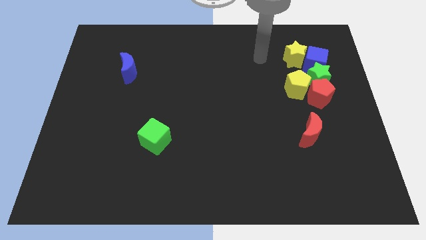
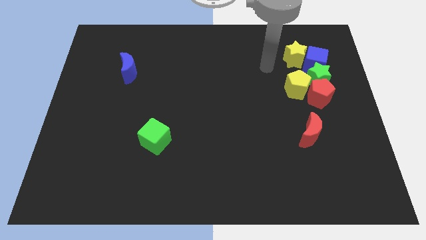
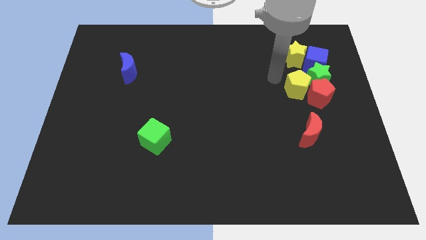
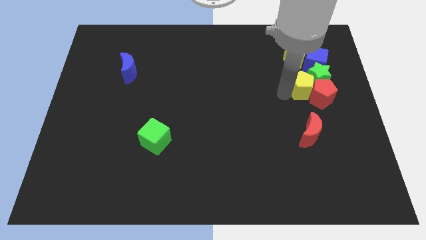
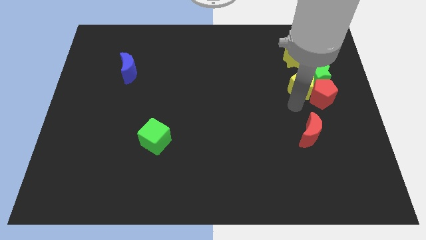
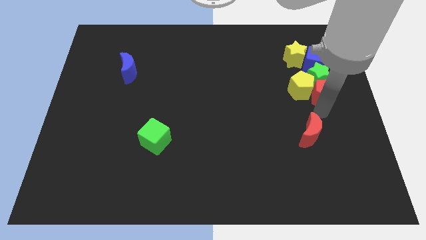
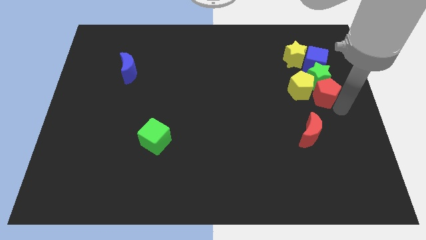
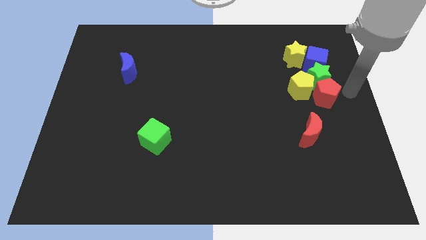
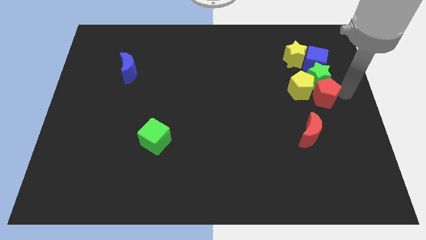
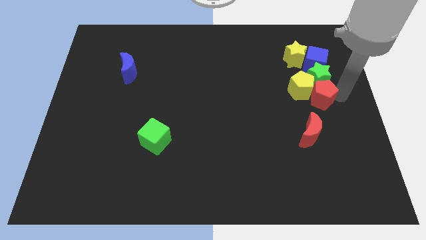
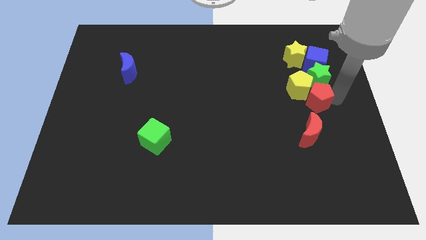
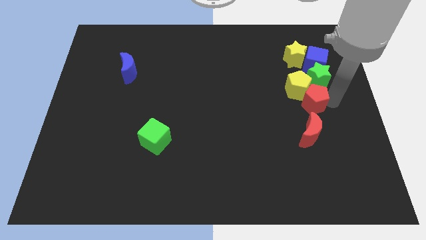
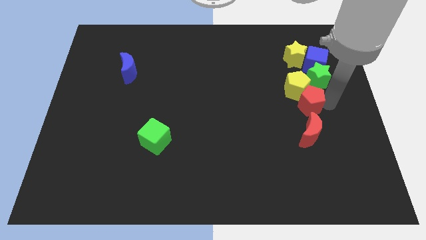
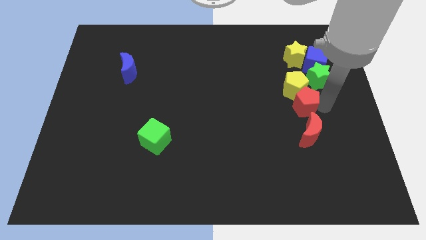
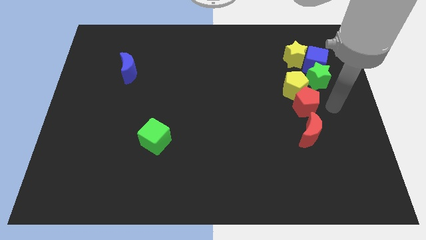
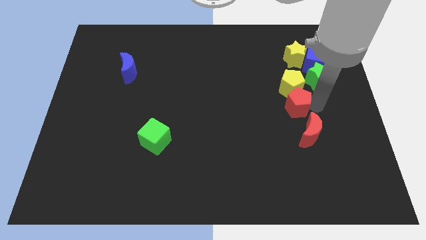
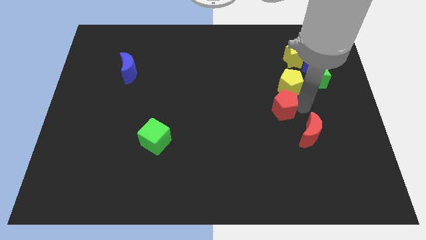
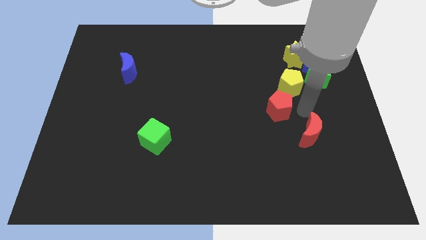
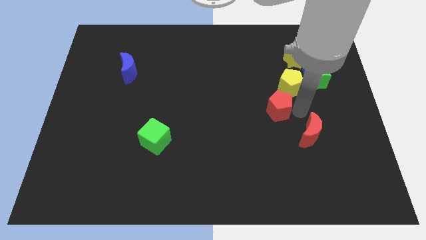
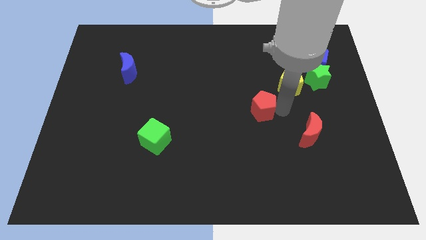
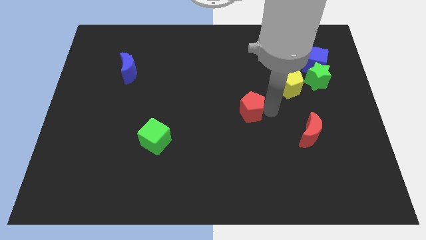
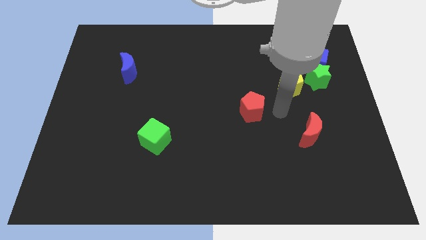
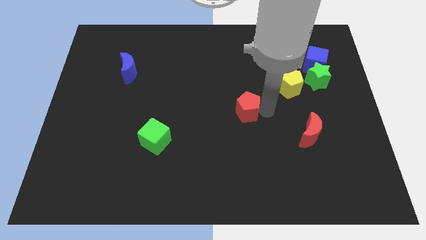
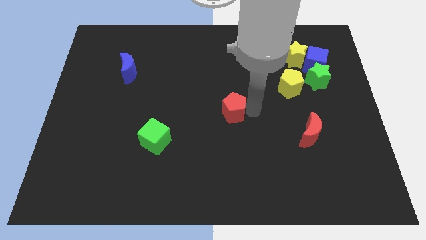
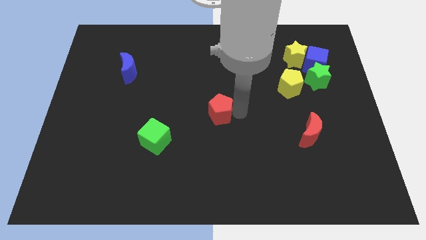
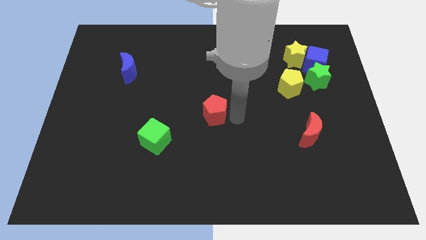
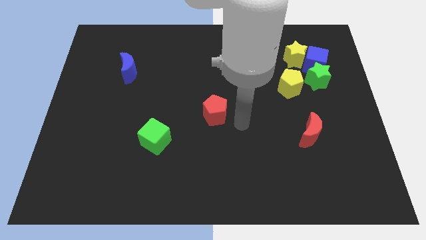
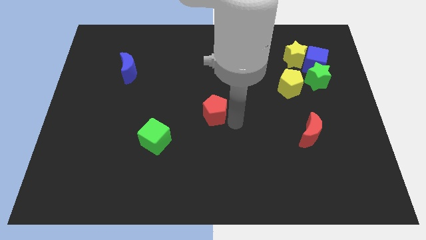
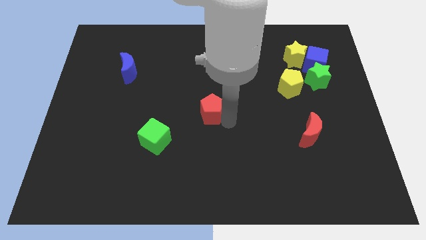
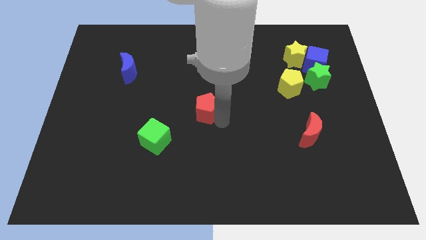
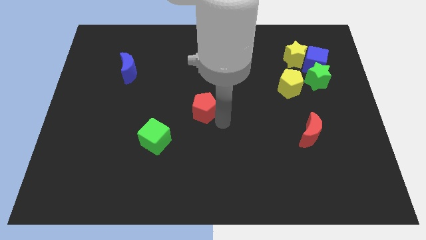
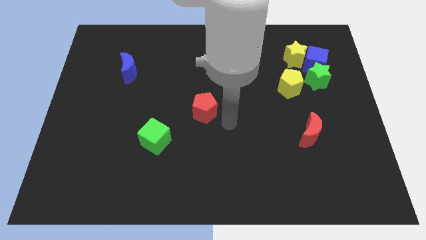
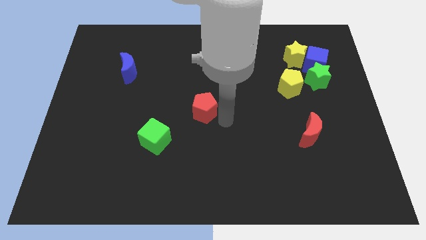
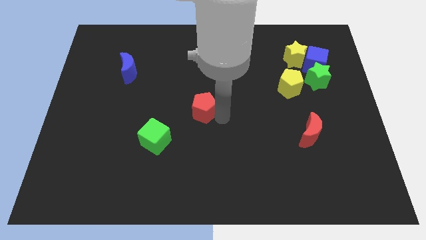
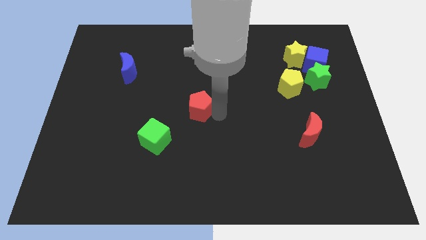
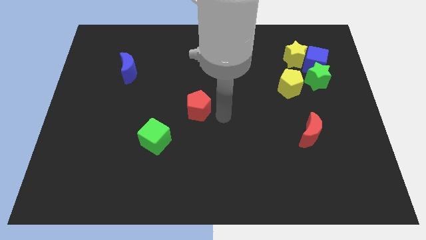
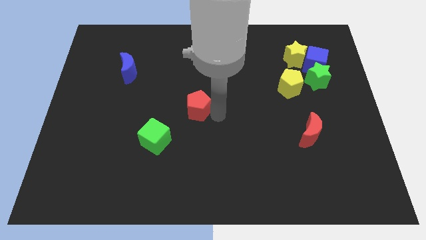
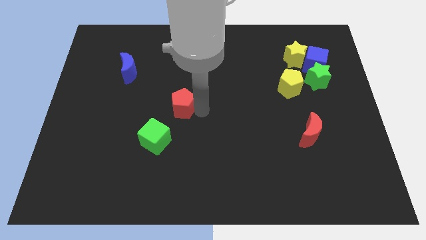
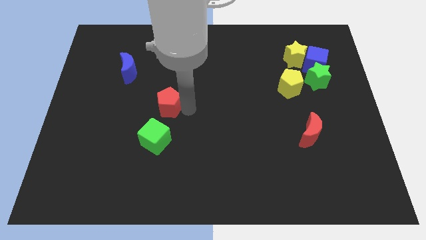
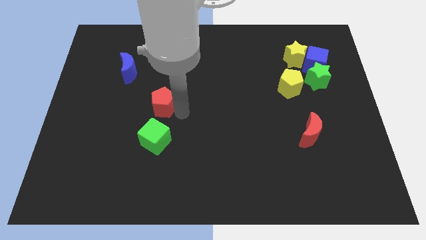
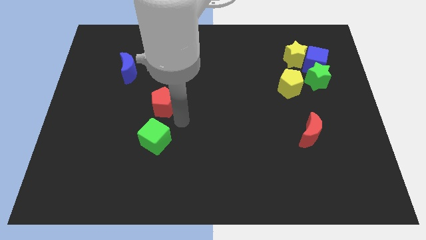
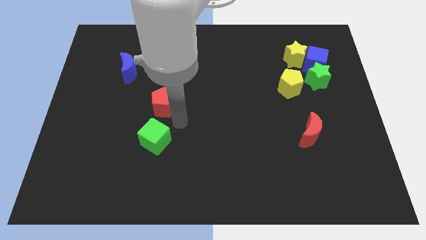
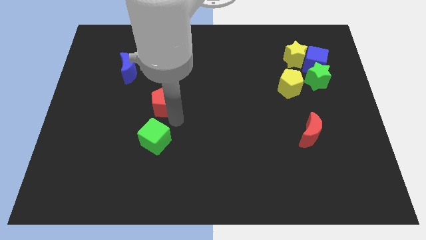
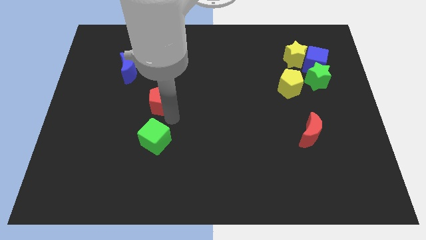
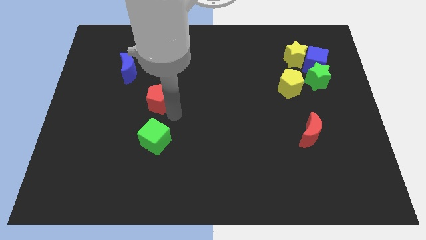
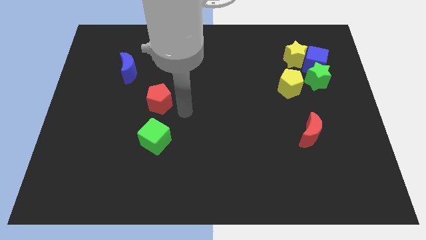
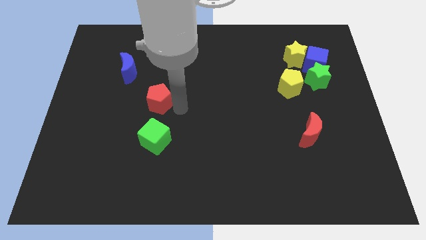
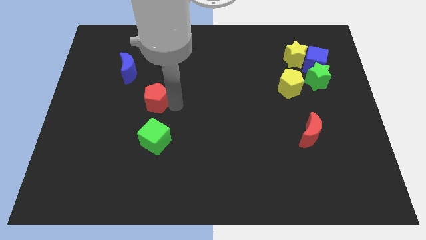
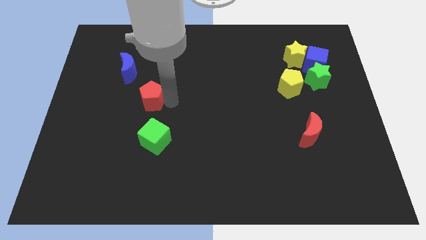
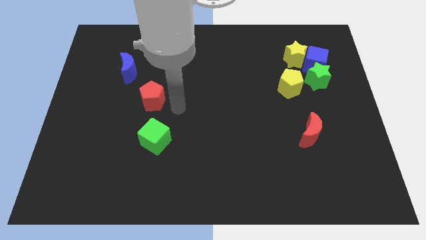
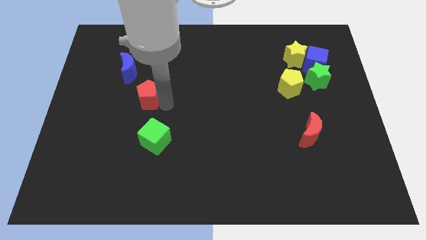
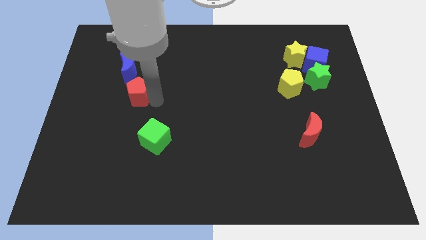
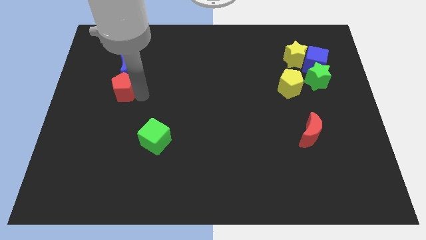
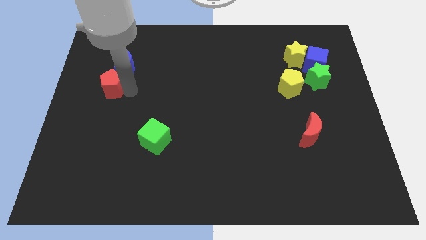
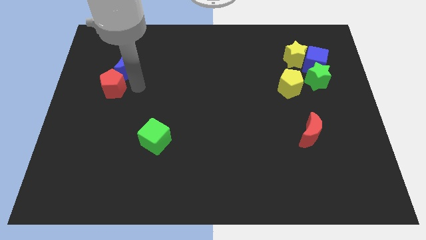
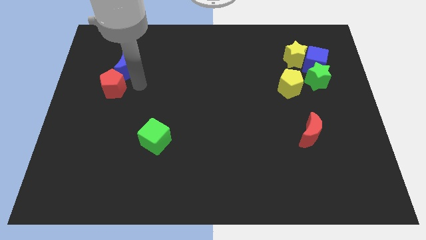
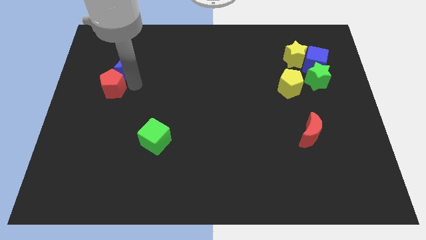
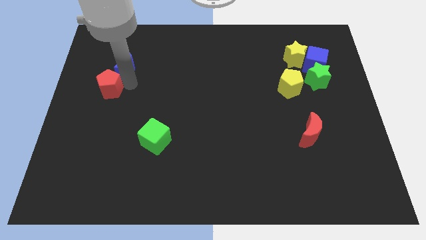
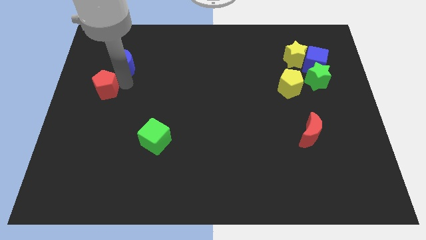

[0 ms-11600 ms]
move the red pentagon to the left side of the board
